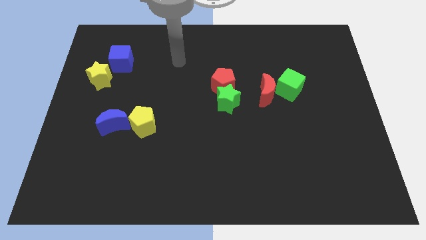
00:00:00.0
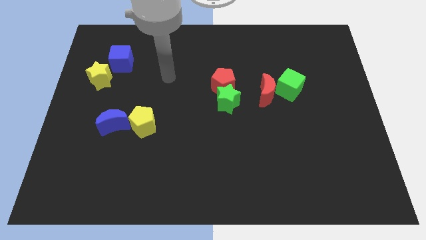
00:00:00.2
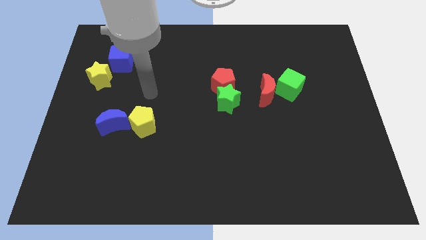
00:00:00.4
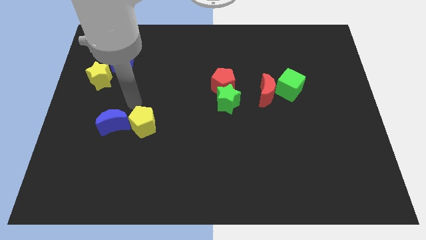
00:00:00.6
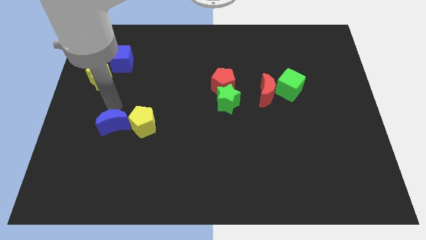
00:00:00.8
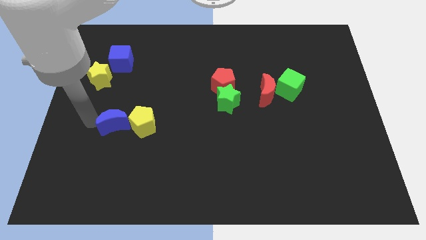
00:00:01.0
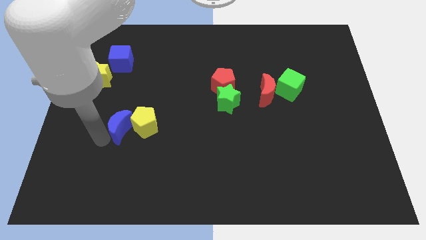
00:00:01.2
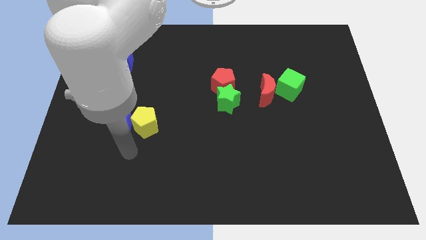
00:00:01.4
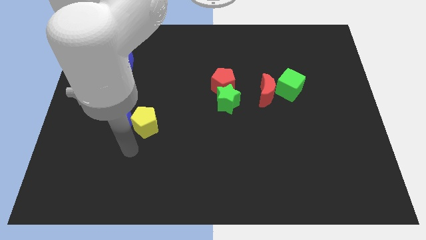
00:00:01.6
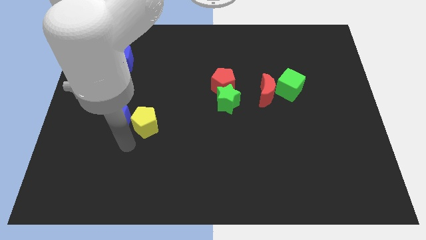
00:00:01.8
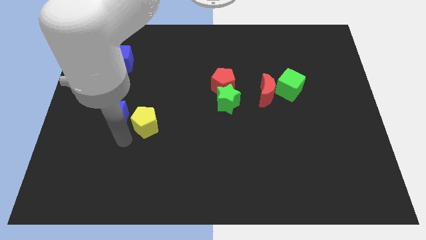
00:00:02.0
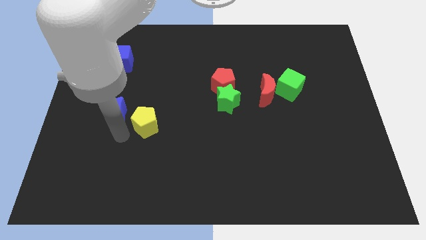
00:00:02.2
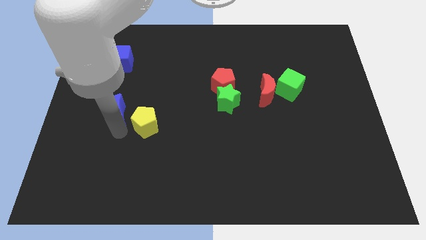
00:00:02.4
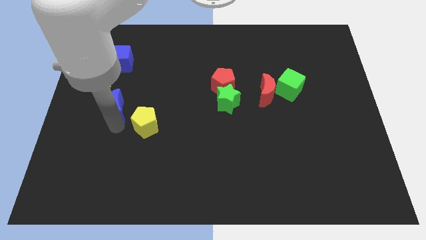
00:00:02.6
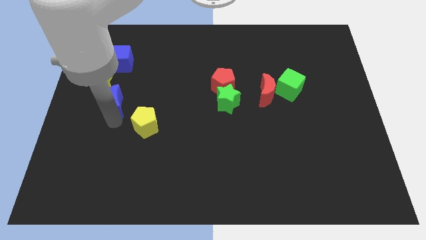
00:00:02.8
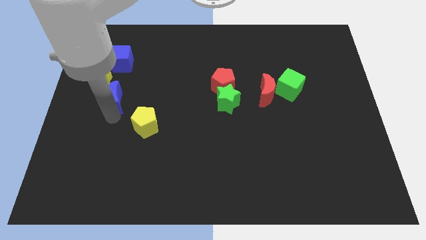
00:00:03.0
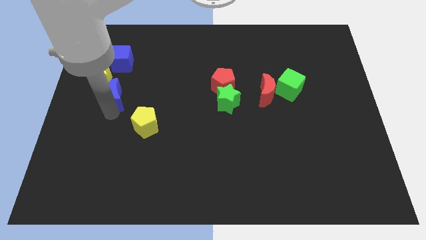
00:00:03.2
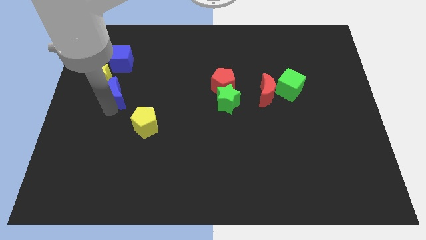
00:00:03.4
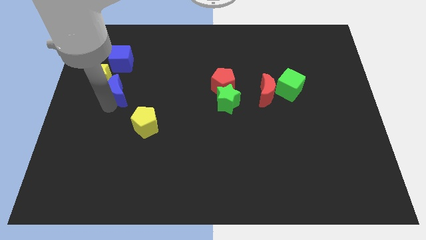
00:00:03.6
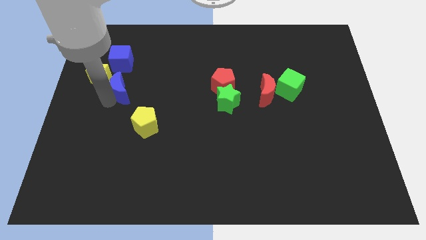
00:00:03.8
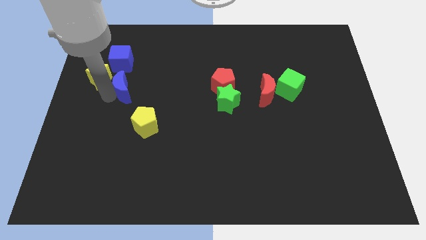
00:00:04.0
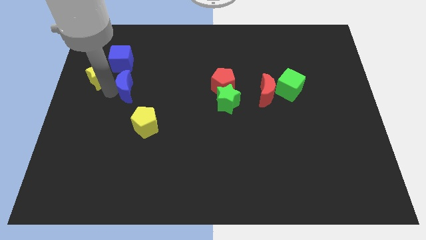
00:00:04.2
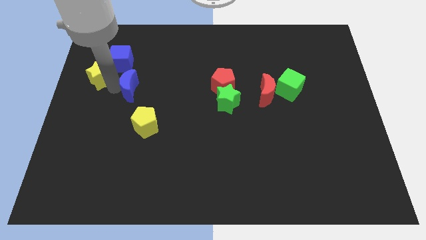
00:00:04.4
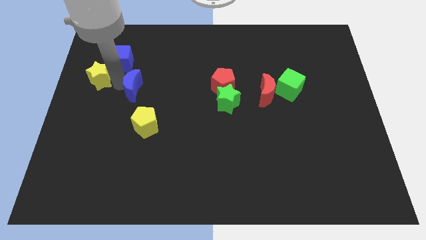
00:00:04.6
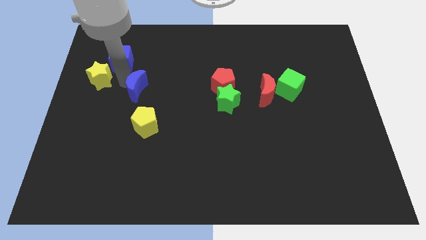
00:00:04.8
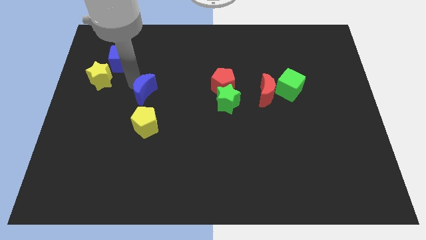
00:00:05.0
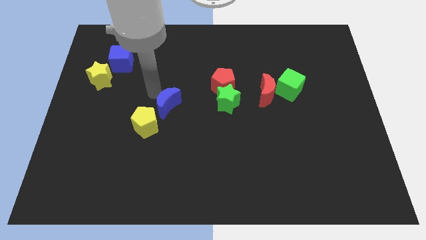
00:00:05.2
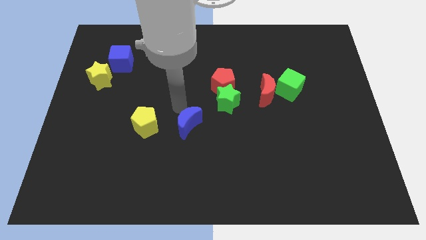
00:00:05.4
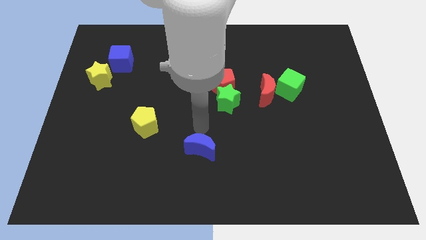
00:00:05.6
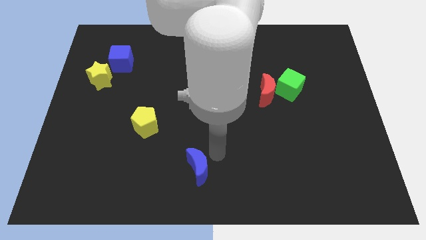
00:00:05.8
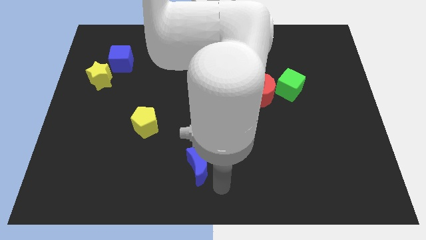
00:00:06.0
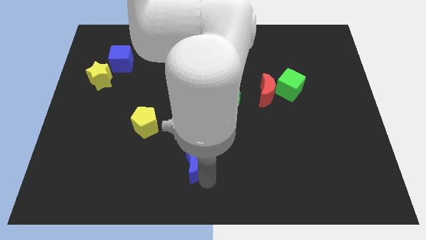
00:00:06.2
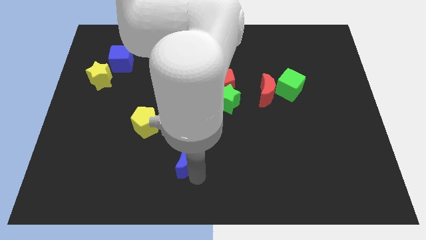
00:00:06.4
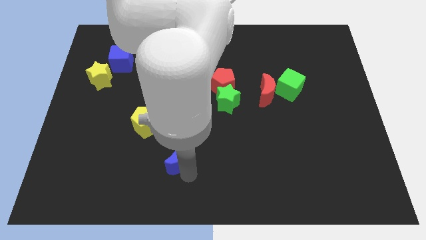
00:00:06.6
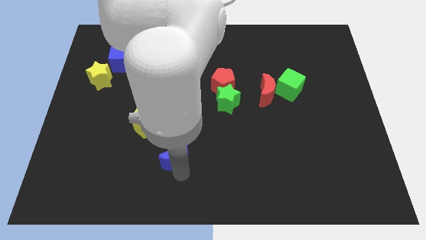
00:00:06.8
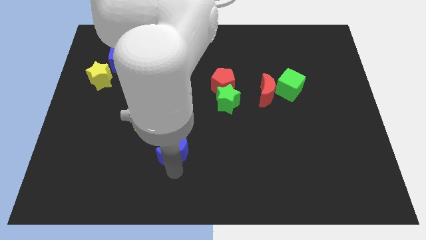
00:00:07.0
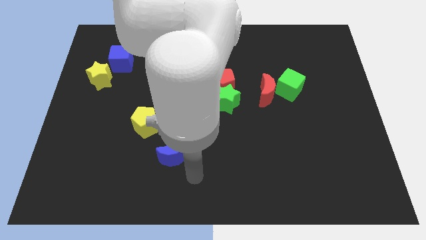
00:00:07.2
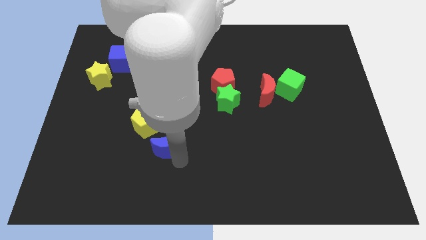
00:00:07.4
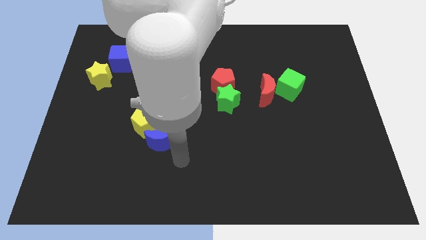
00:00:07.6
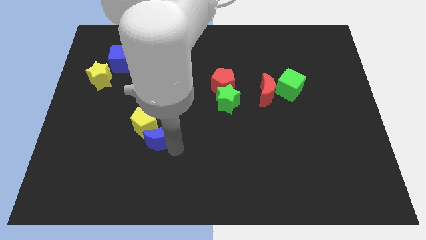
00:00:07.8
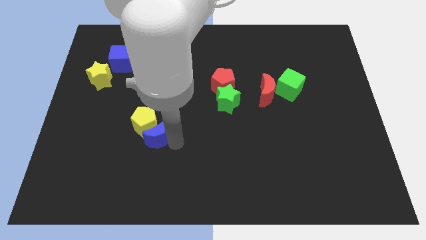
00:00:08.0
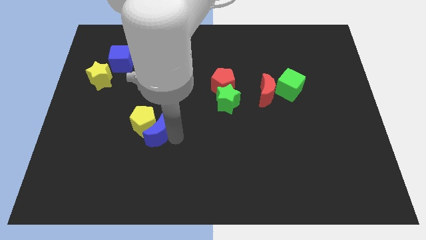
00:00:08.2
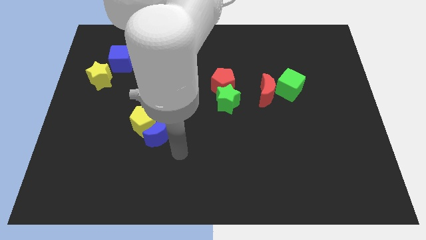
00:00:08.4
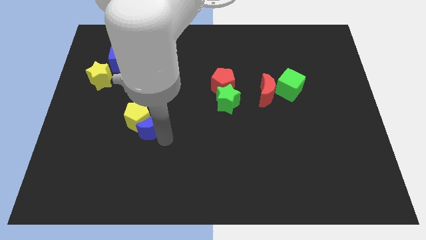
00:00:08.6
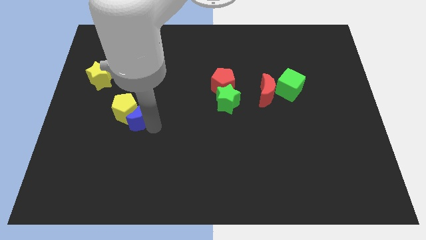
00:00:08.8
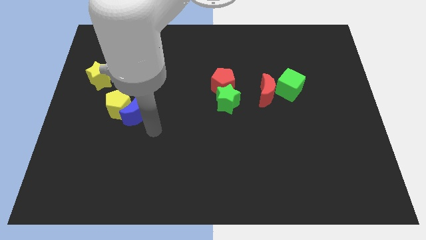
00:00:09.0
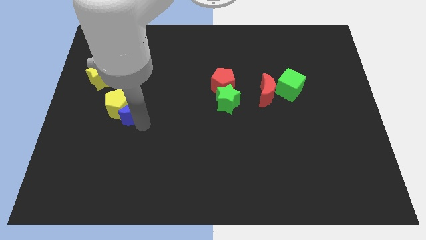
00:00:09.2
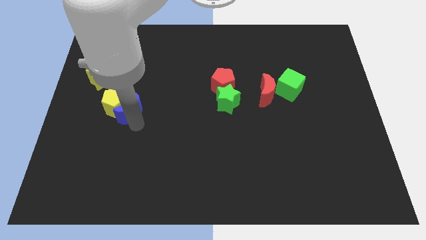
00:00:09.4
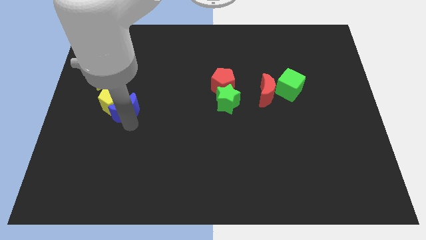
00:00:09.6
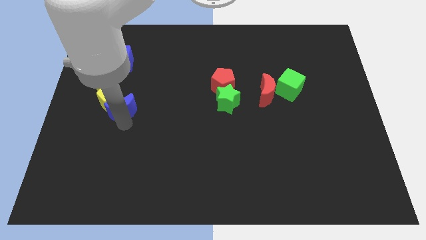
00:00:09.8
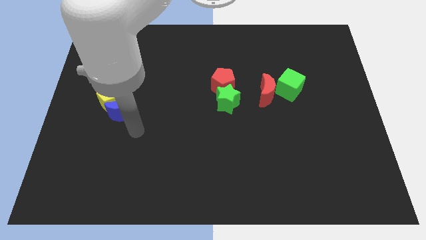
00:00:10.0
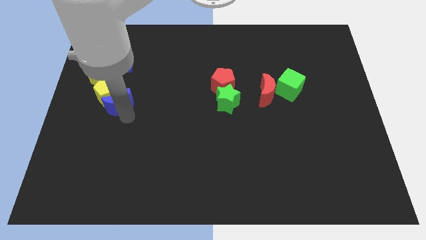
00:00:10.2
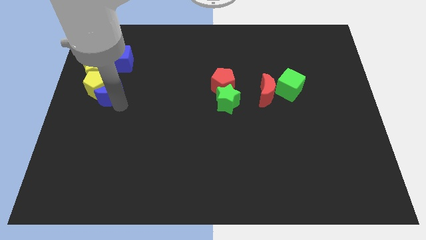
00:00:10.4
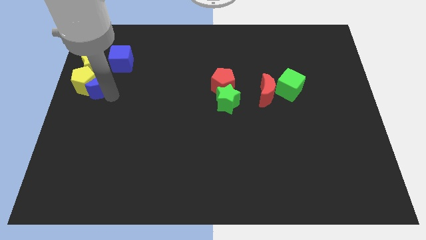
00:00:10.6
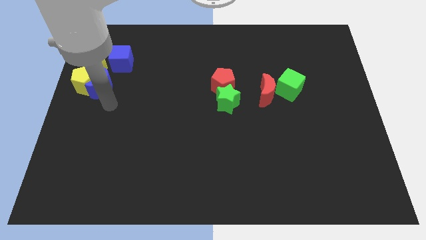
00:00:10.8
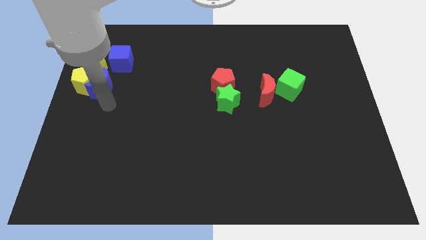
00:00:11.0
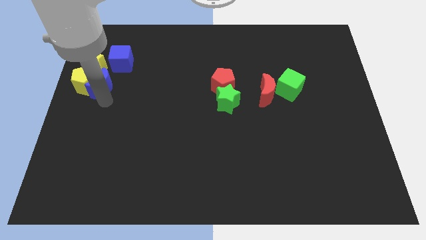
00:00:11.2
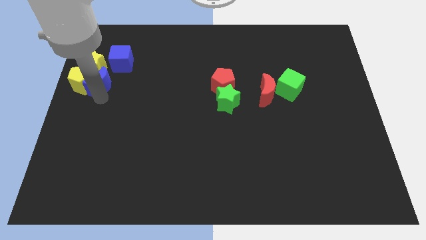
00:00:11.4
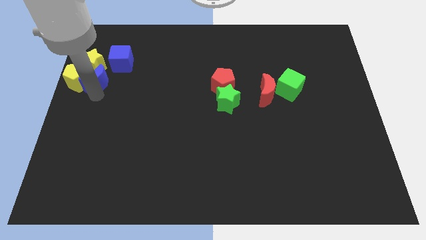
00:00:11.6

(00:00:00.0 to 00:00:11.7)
push the blue moon next to the yellow star

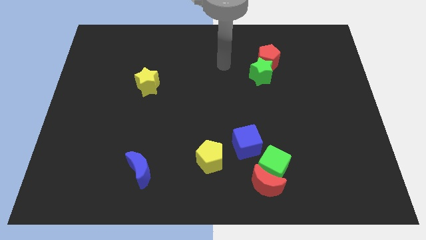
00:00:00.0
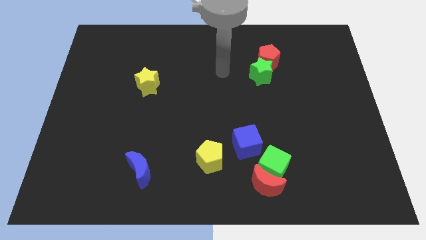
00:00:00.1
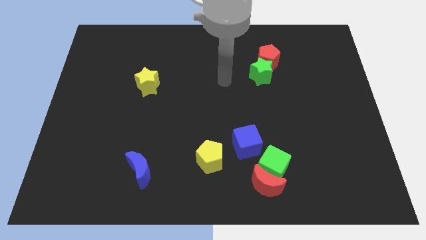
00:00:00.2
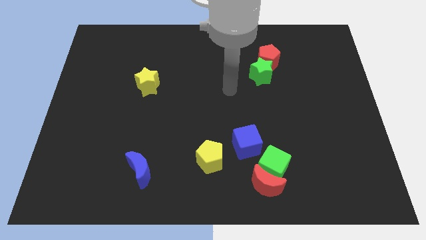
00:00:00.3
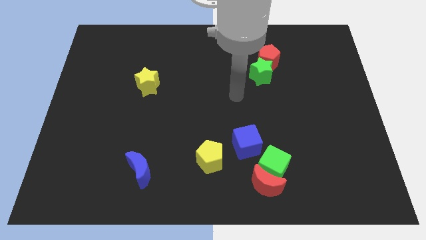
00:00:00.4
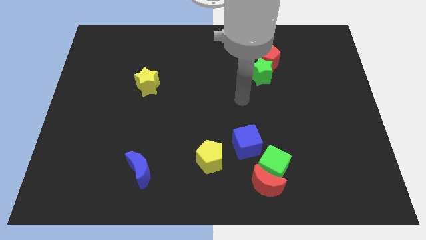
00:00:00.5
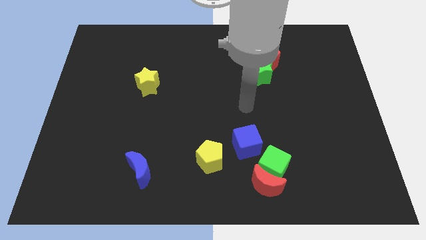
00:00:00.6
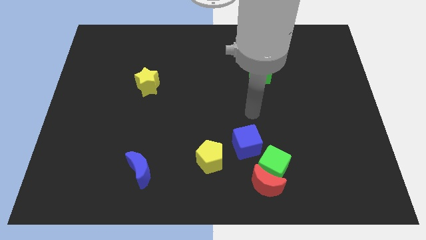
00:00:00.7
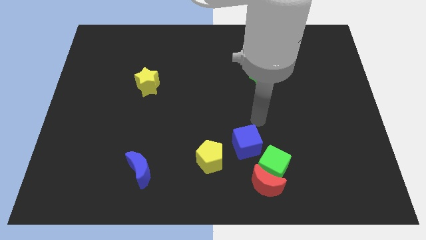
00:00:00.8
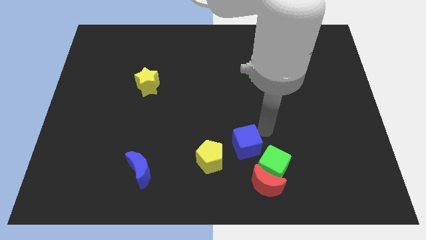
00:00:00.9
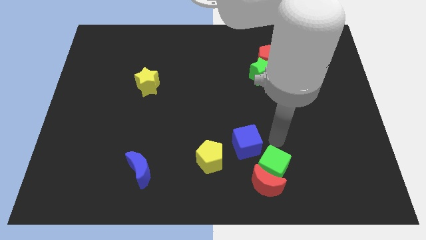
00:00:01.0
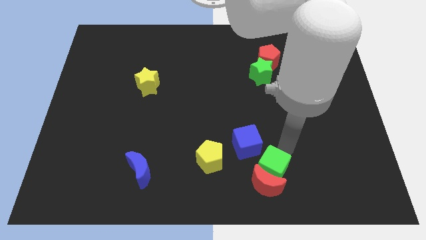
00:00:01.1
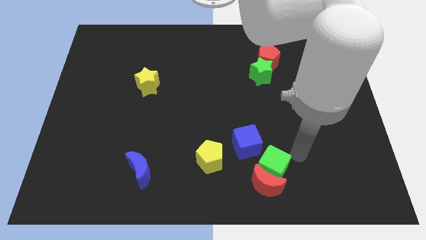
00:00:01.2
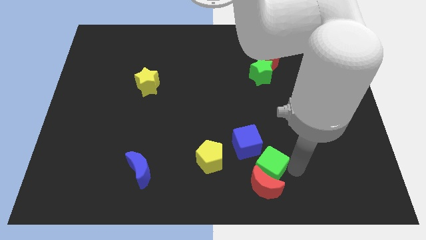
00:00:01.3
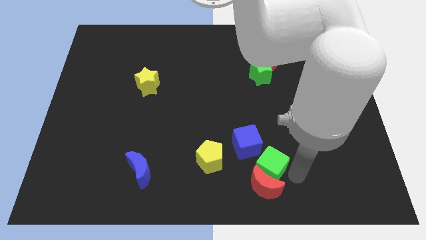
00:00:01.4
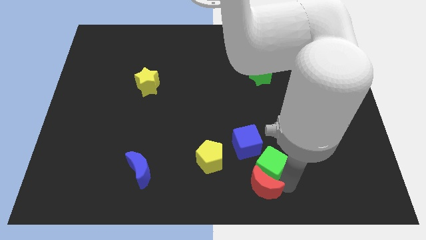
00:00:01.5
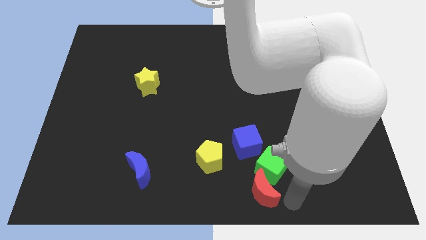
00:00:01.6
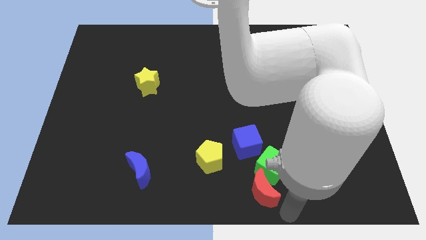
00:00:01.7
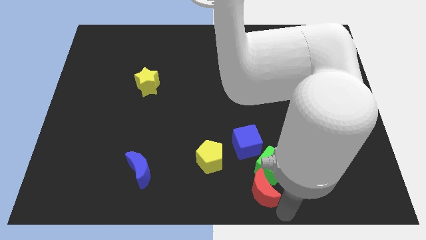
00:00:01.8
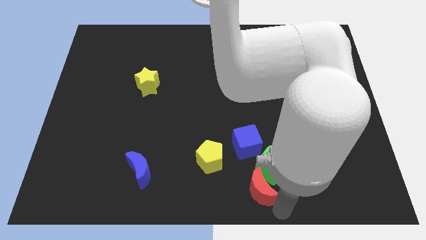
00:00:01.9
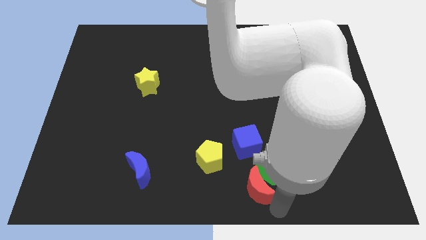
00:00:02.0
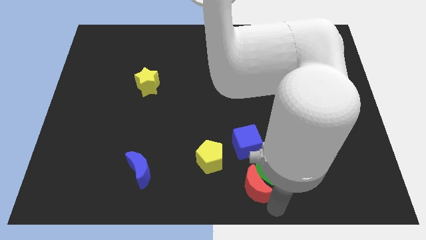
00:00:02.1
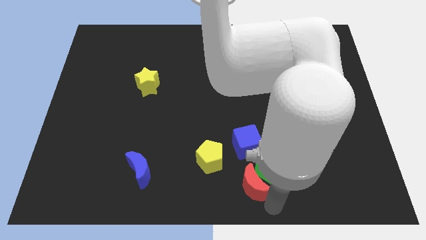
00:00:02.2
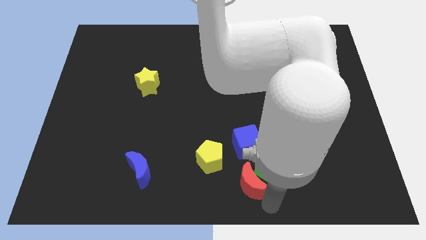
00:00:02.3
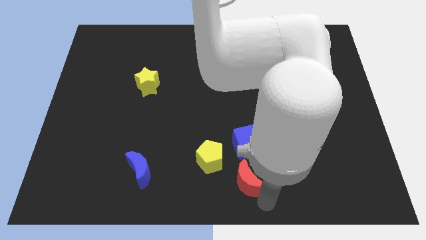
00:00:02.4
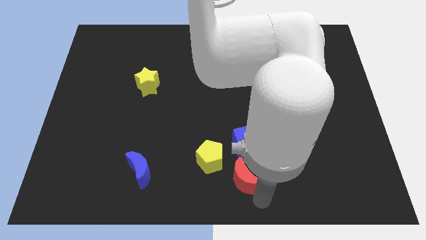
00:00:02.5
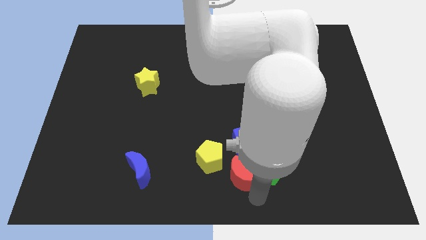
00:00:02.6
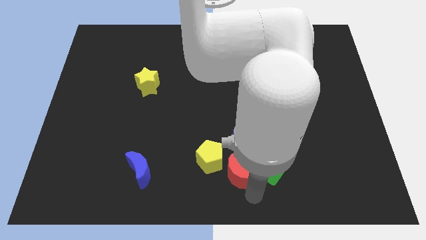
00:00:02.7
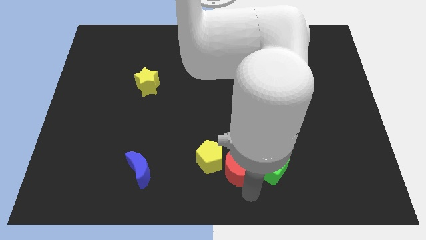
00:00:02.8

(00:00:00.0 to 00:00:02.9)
push the red moon to the yellow pentagon
